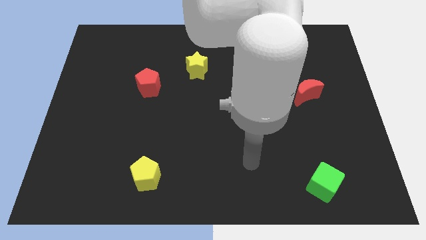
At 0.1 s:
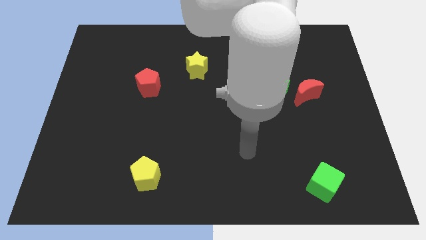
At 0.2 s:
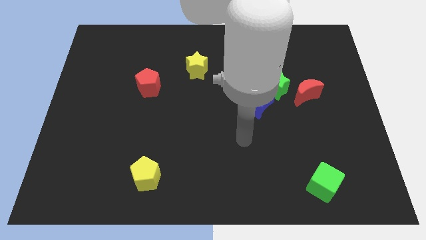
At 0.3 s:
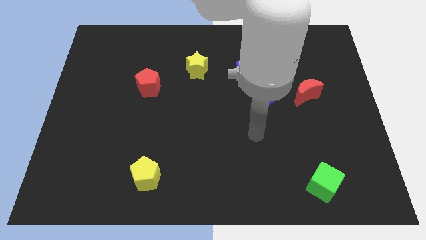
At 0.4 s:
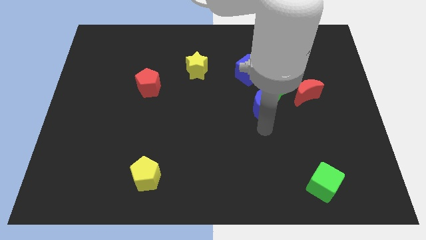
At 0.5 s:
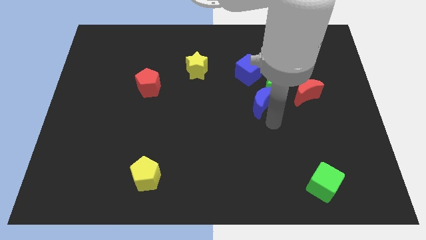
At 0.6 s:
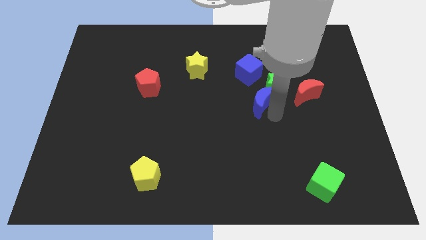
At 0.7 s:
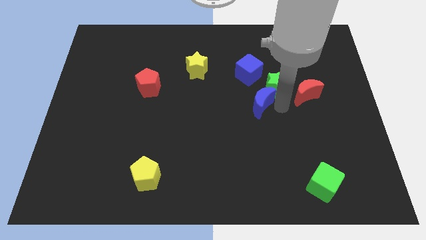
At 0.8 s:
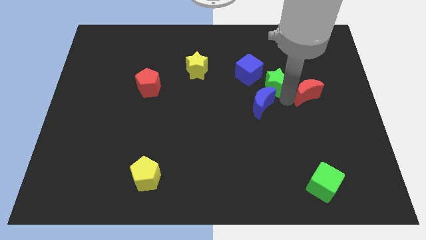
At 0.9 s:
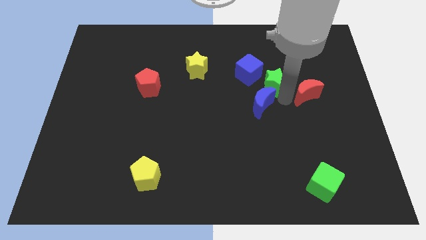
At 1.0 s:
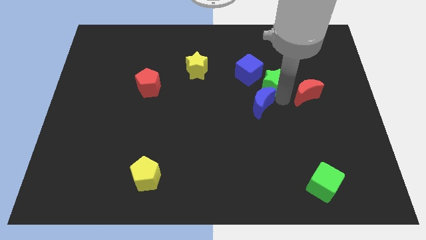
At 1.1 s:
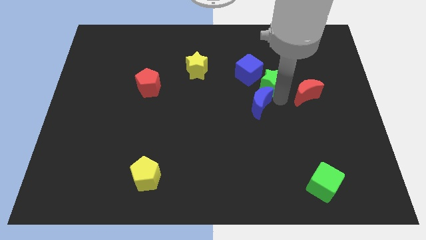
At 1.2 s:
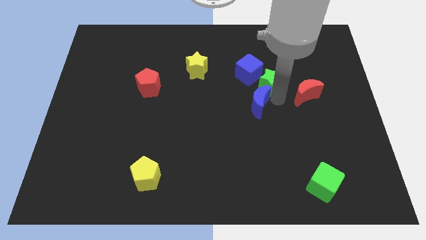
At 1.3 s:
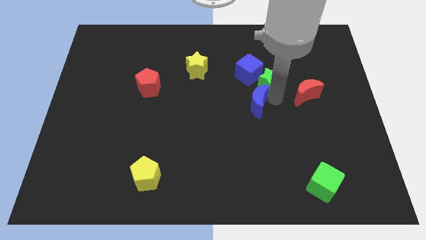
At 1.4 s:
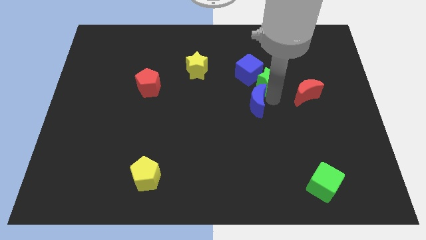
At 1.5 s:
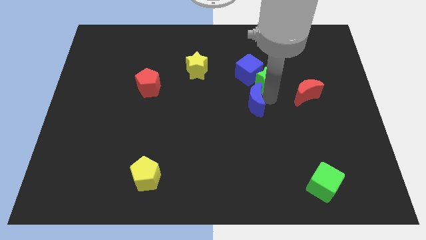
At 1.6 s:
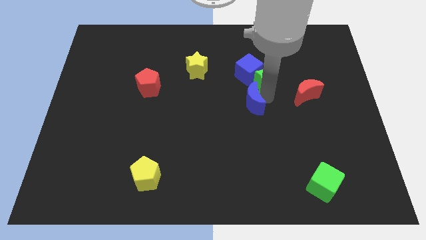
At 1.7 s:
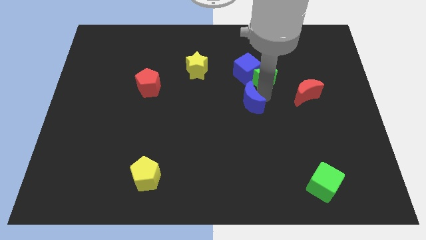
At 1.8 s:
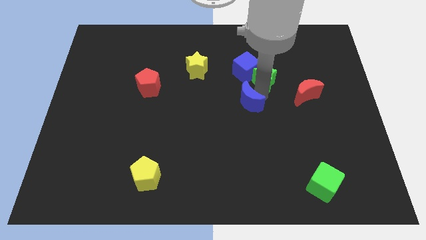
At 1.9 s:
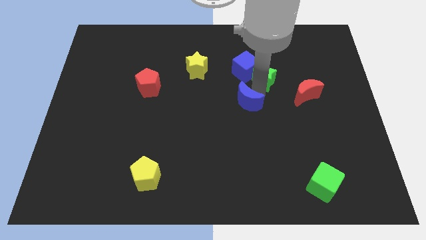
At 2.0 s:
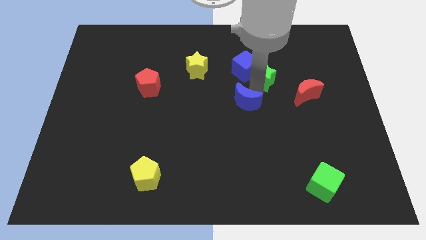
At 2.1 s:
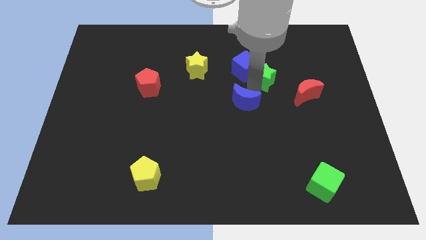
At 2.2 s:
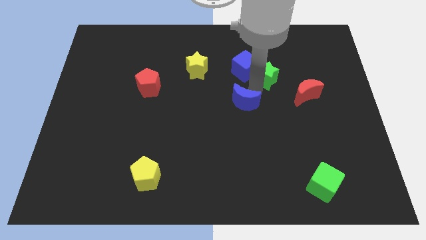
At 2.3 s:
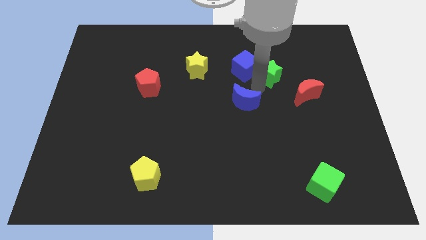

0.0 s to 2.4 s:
move the blue moon away from the green star

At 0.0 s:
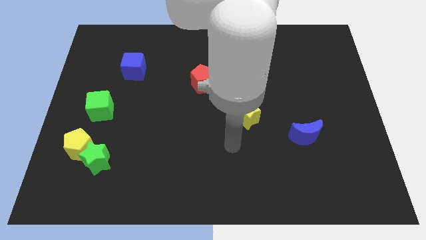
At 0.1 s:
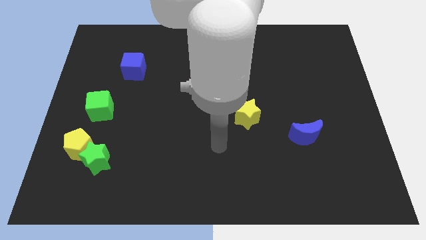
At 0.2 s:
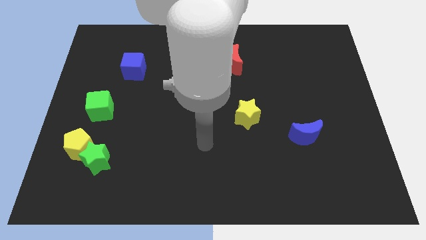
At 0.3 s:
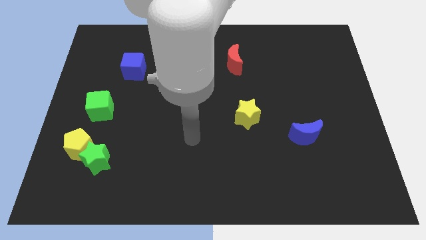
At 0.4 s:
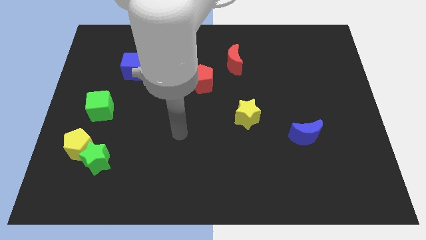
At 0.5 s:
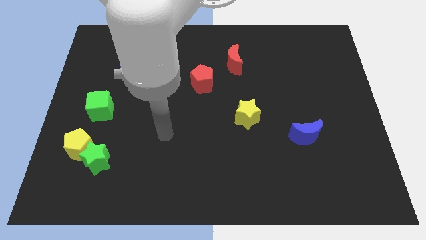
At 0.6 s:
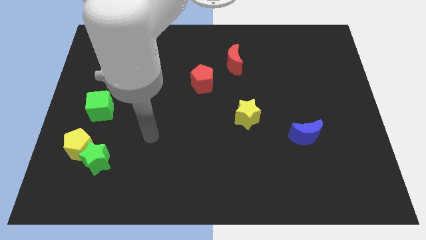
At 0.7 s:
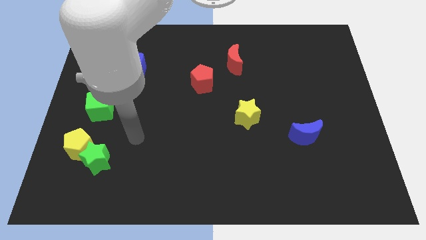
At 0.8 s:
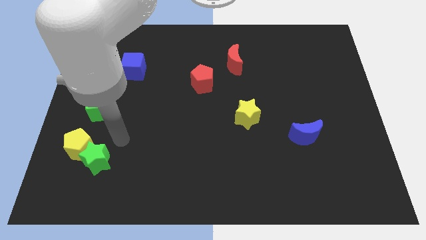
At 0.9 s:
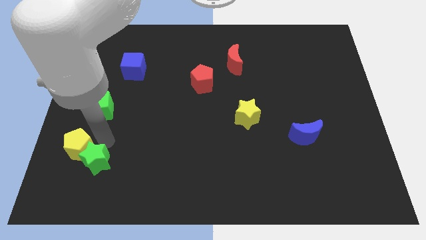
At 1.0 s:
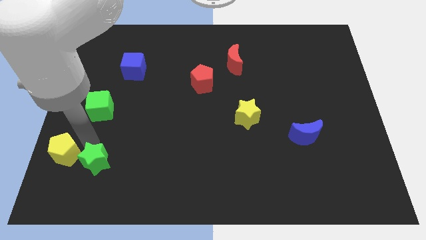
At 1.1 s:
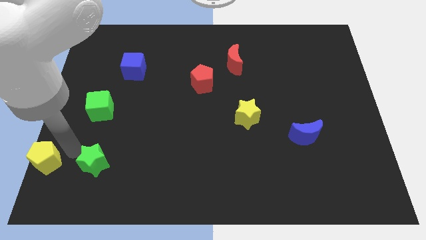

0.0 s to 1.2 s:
separate the green star from the yellow pentagon

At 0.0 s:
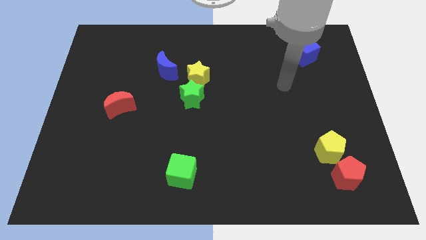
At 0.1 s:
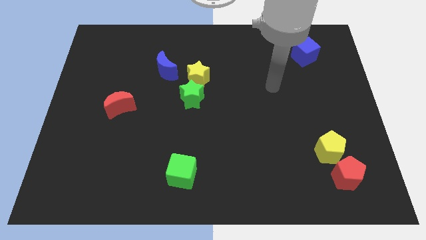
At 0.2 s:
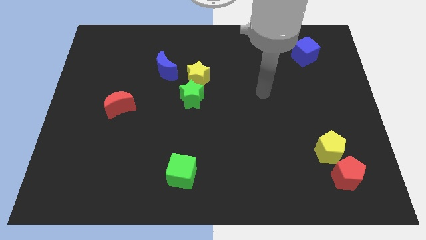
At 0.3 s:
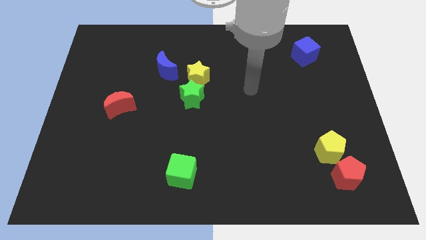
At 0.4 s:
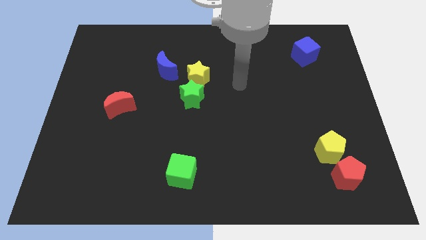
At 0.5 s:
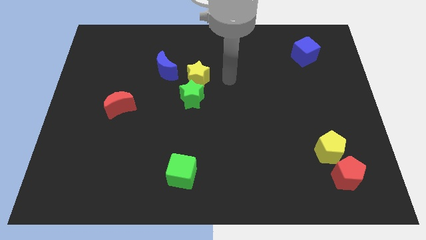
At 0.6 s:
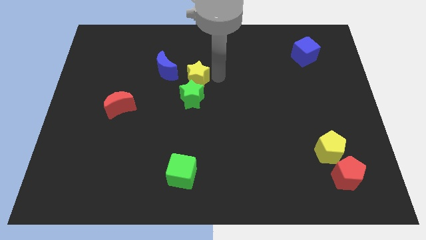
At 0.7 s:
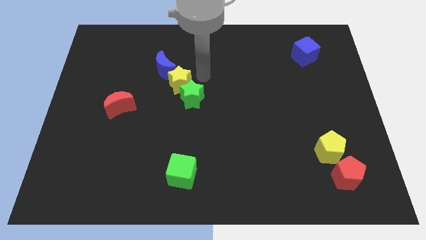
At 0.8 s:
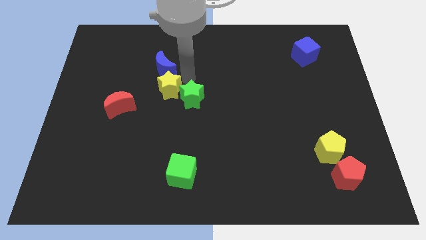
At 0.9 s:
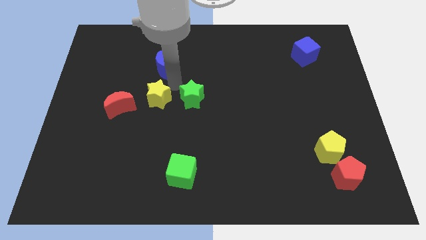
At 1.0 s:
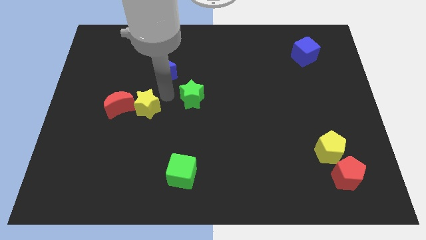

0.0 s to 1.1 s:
pull the green star apart from the yellow star

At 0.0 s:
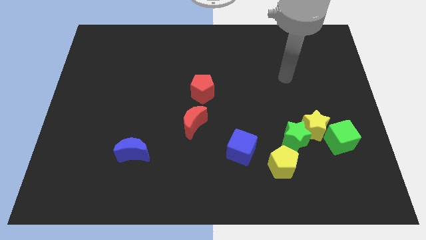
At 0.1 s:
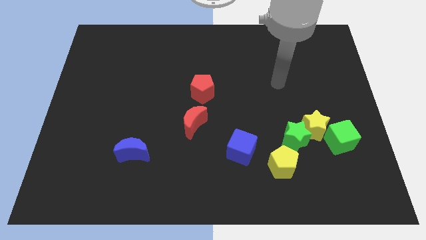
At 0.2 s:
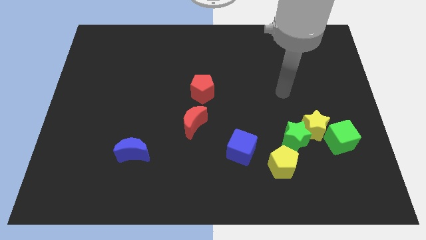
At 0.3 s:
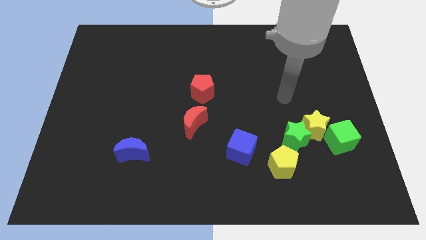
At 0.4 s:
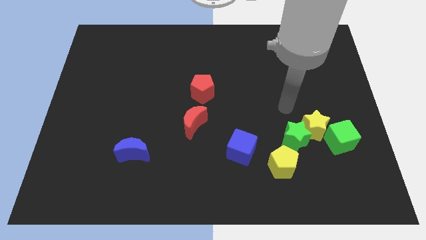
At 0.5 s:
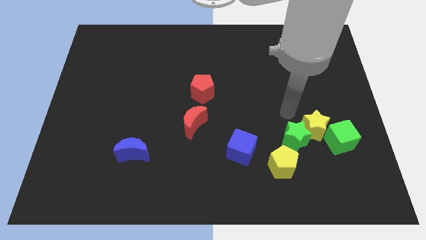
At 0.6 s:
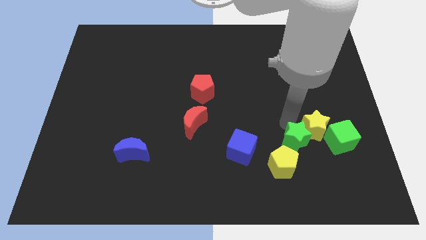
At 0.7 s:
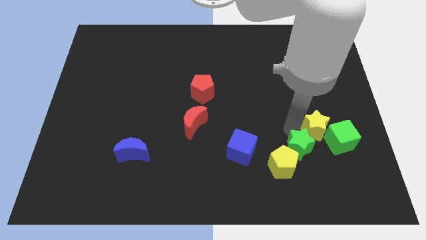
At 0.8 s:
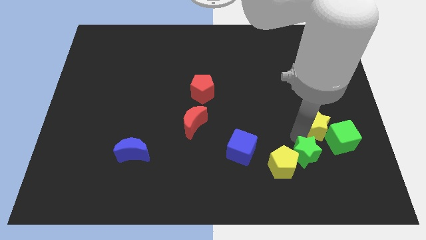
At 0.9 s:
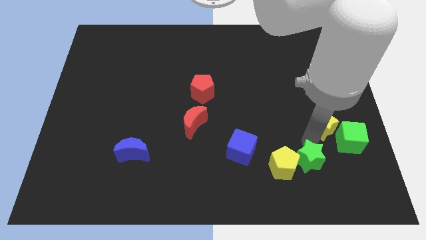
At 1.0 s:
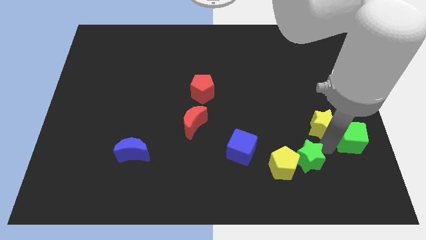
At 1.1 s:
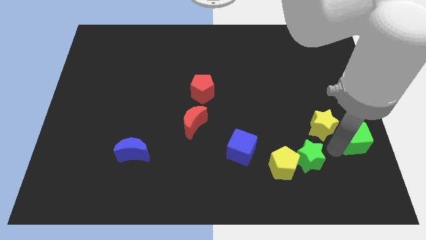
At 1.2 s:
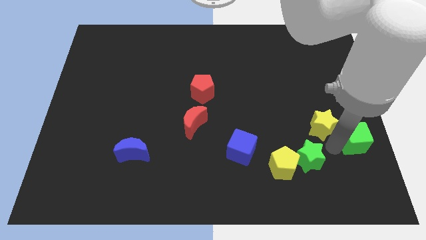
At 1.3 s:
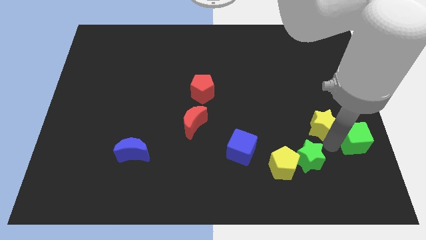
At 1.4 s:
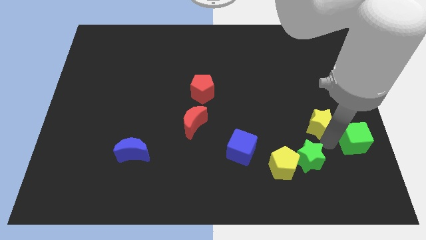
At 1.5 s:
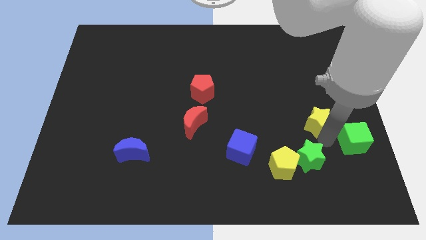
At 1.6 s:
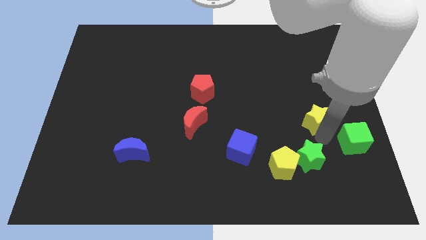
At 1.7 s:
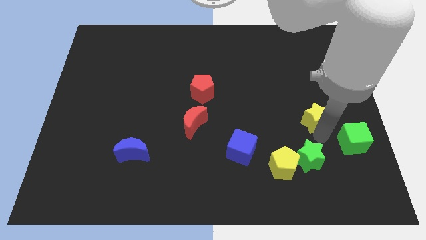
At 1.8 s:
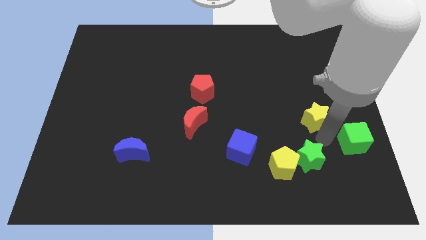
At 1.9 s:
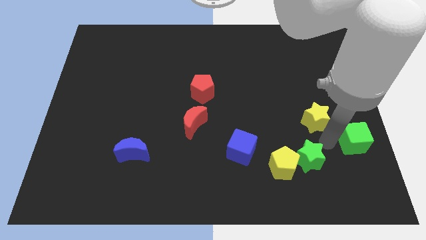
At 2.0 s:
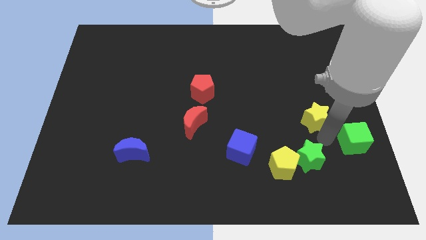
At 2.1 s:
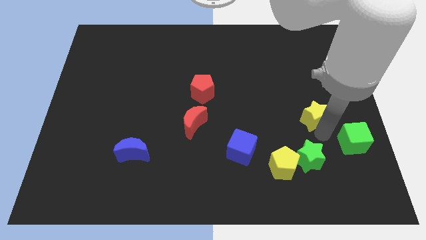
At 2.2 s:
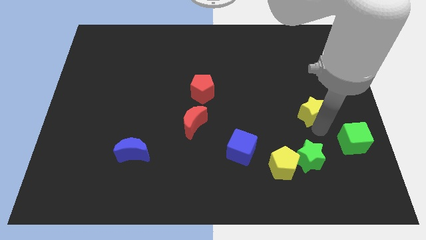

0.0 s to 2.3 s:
move the yellow star away from the green star and green cube

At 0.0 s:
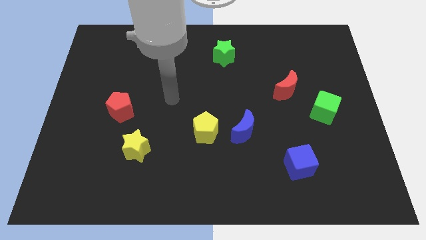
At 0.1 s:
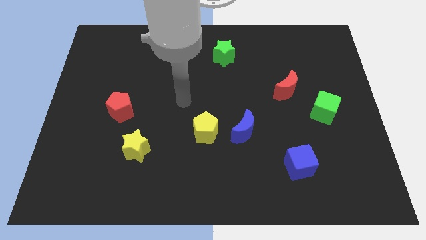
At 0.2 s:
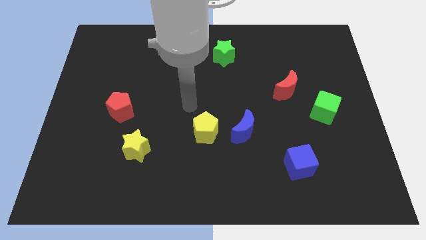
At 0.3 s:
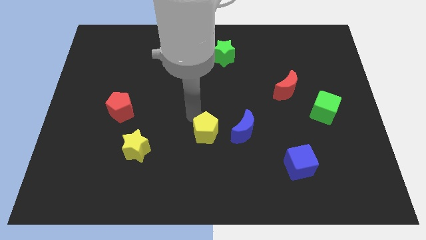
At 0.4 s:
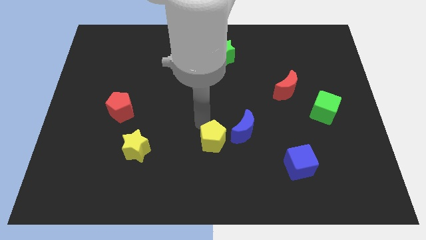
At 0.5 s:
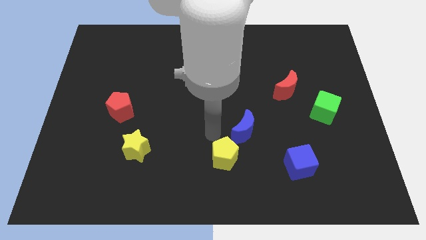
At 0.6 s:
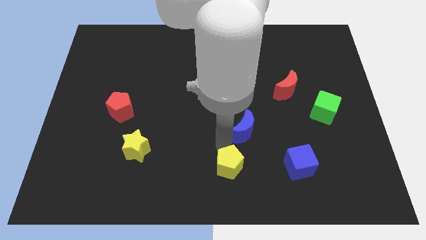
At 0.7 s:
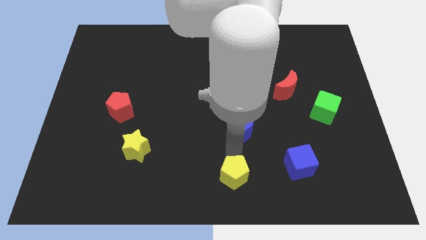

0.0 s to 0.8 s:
separate the blue moon from the yellow pentagon

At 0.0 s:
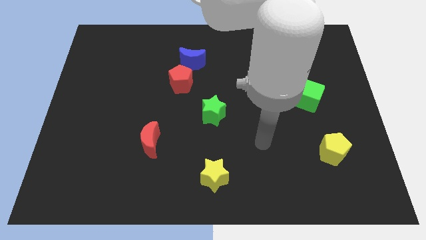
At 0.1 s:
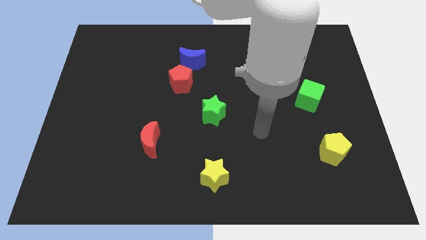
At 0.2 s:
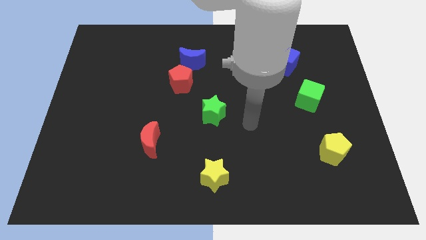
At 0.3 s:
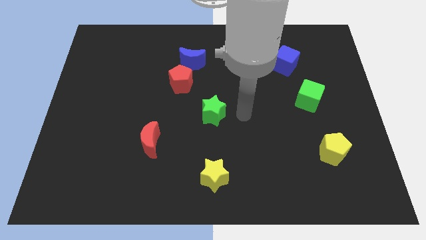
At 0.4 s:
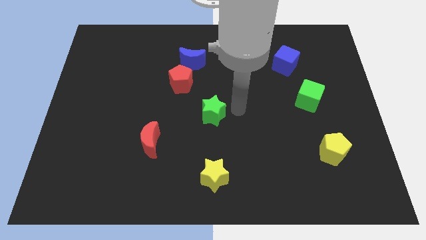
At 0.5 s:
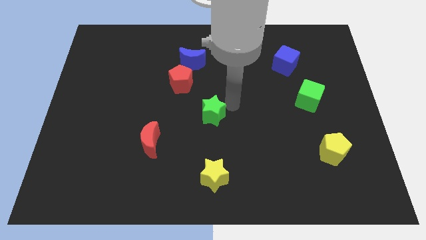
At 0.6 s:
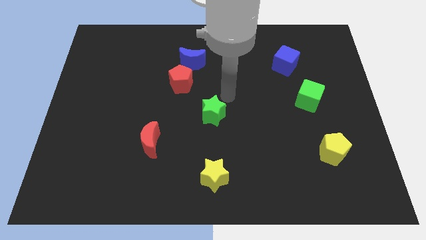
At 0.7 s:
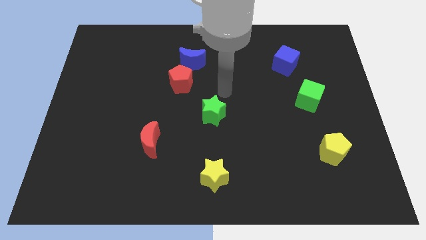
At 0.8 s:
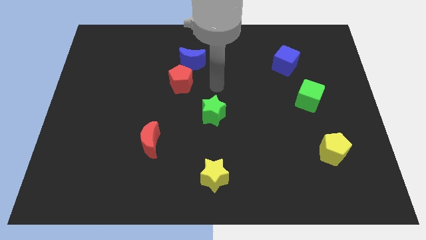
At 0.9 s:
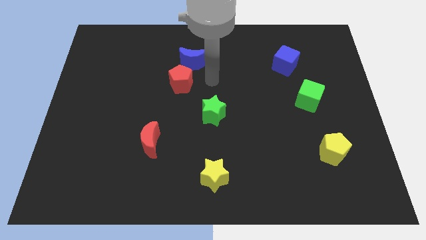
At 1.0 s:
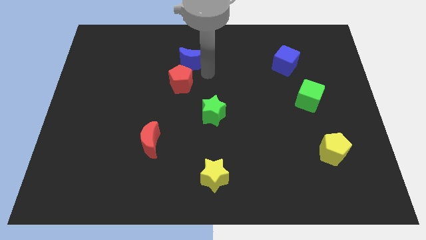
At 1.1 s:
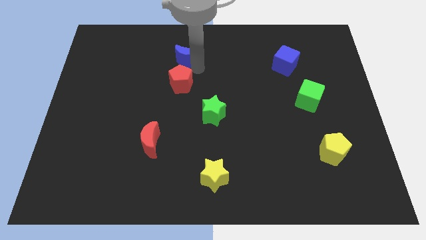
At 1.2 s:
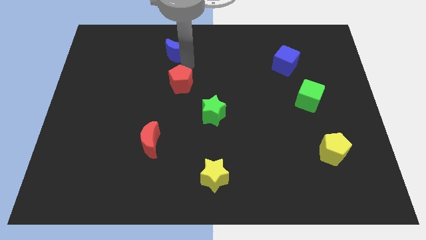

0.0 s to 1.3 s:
pull the red pentagon apart from the blue moon

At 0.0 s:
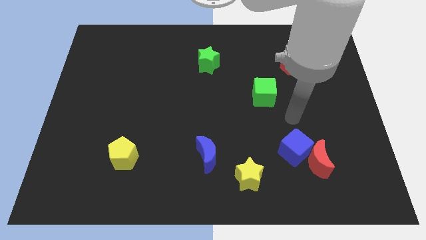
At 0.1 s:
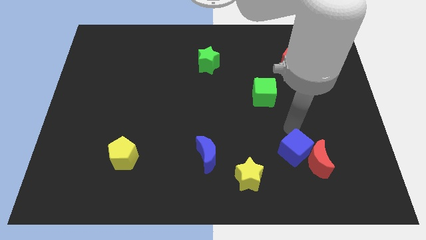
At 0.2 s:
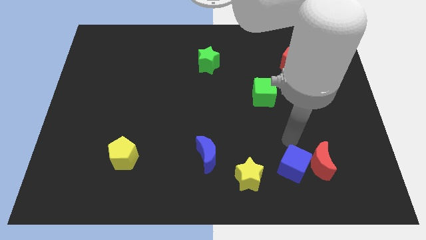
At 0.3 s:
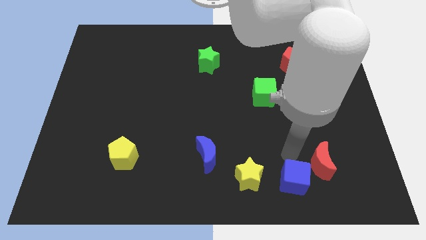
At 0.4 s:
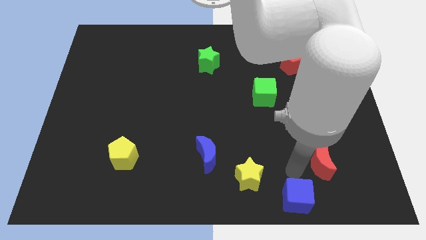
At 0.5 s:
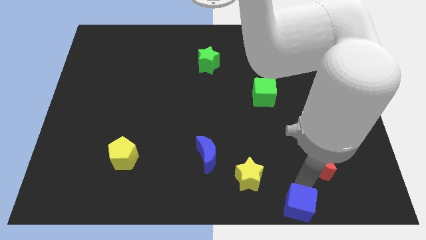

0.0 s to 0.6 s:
move the red moon away from the blue cube
